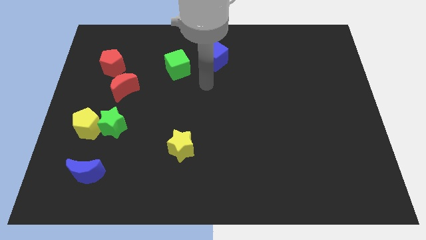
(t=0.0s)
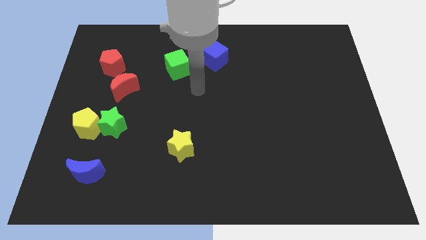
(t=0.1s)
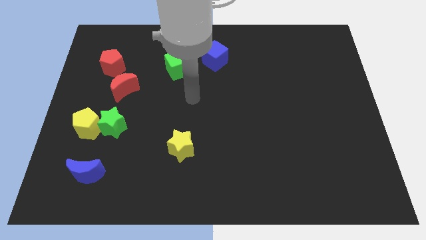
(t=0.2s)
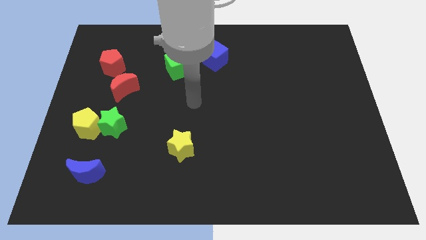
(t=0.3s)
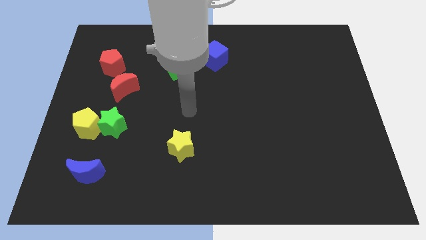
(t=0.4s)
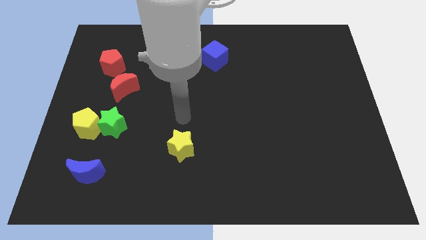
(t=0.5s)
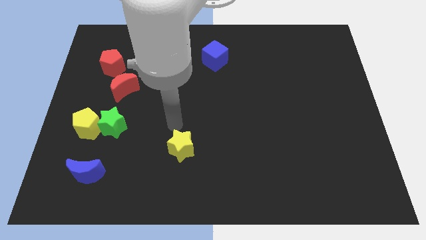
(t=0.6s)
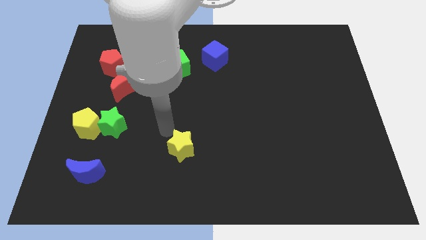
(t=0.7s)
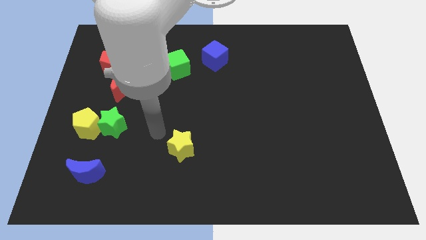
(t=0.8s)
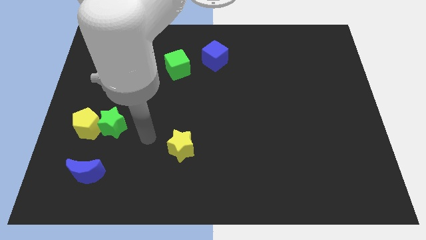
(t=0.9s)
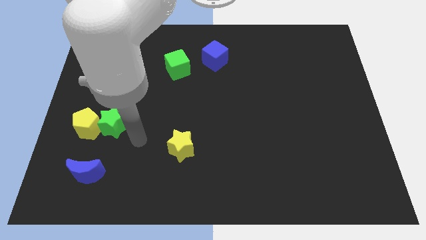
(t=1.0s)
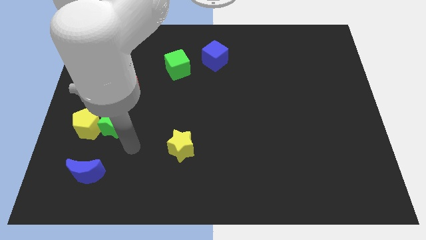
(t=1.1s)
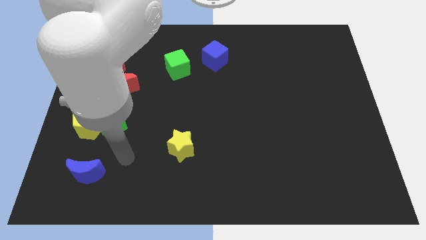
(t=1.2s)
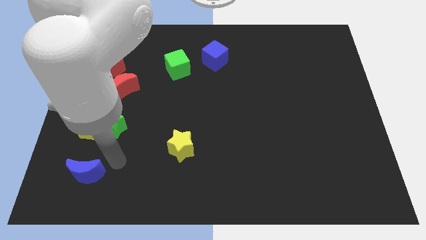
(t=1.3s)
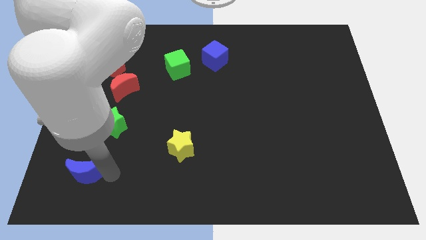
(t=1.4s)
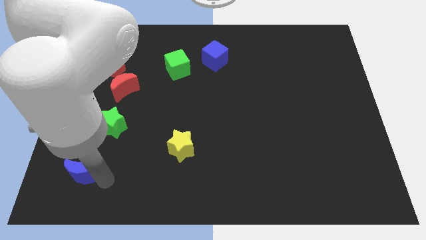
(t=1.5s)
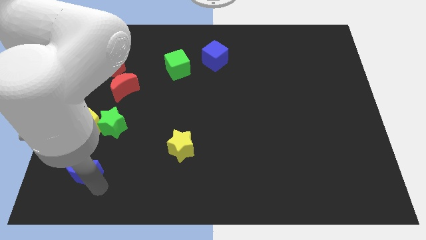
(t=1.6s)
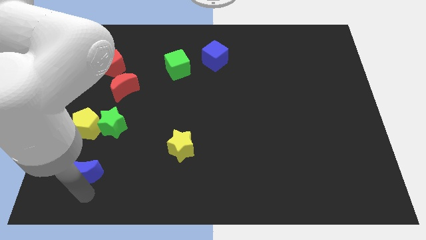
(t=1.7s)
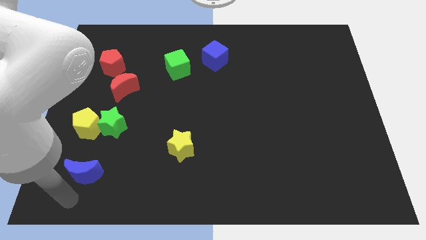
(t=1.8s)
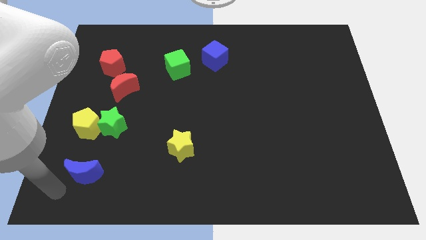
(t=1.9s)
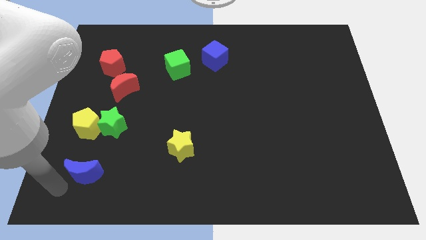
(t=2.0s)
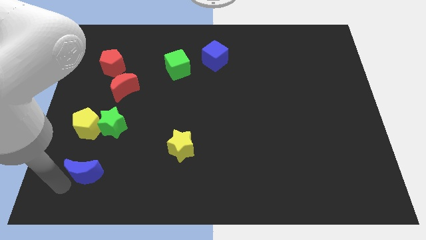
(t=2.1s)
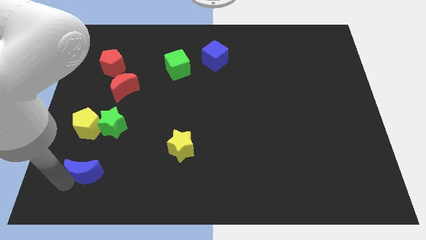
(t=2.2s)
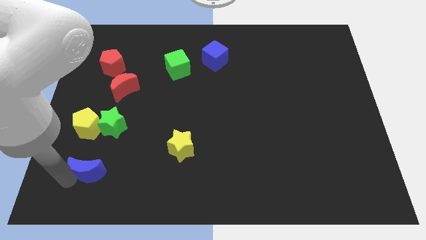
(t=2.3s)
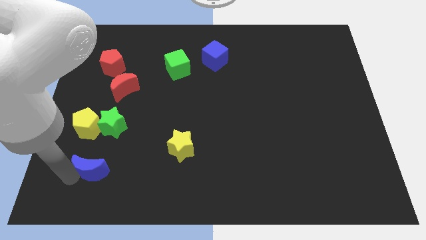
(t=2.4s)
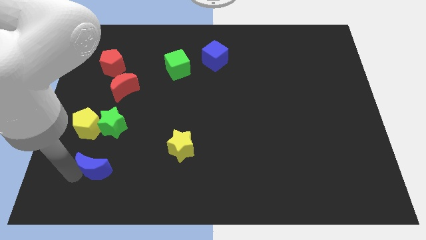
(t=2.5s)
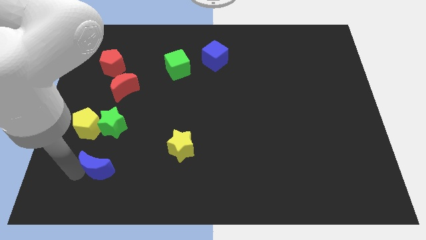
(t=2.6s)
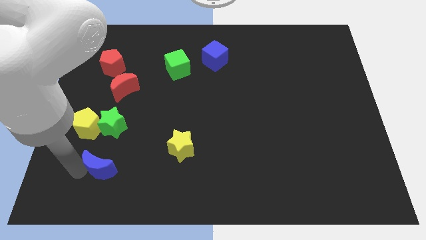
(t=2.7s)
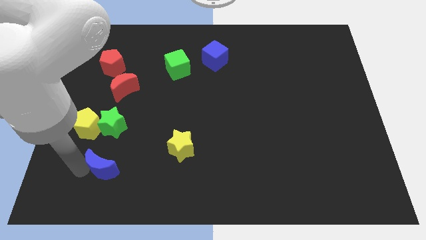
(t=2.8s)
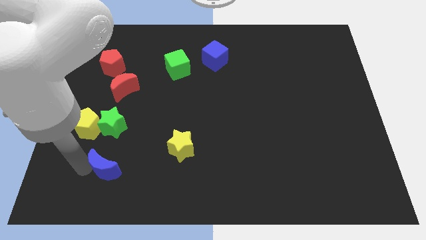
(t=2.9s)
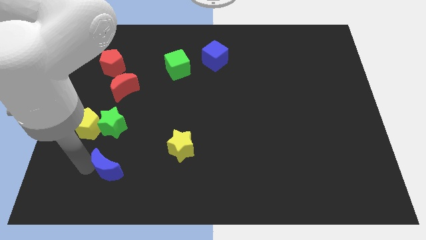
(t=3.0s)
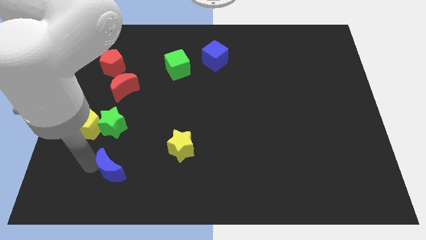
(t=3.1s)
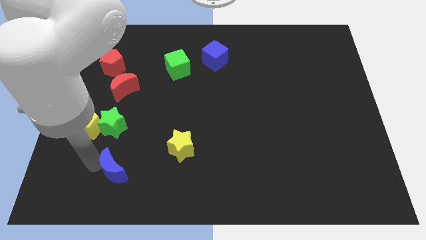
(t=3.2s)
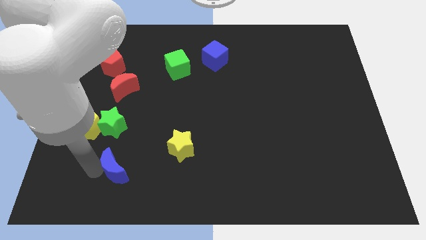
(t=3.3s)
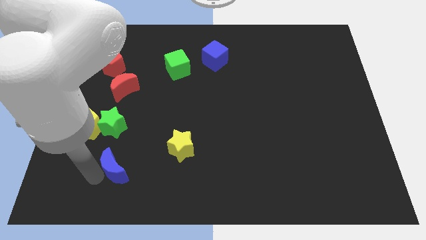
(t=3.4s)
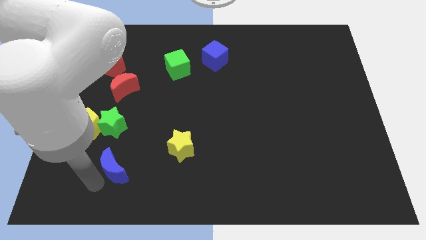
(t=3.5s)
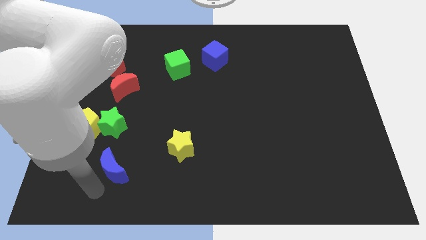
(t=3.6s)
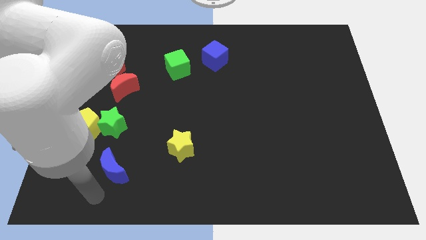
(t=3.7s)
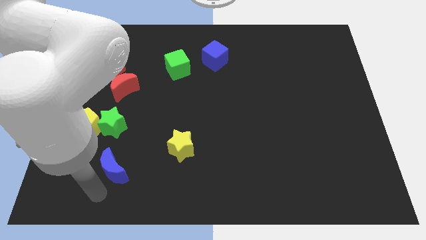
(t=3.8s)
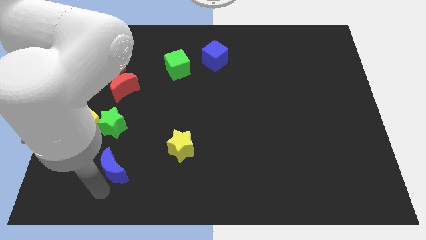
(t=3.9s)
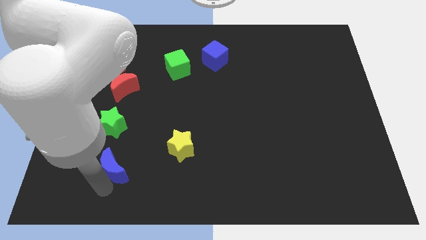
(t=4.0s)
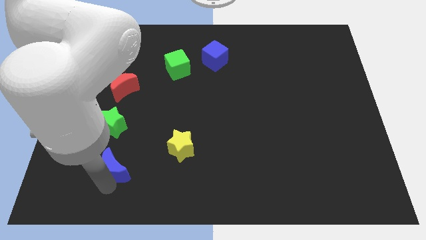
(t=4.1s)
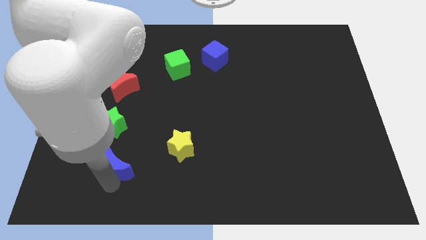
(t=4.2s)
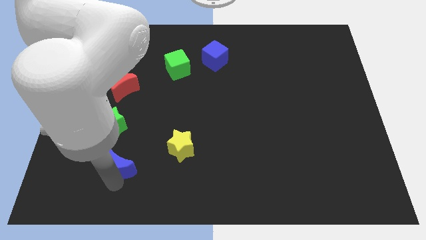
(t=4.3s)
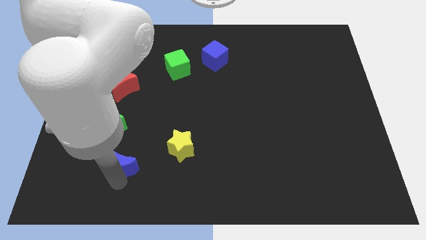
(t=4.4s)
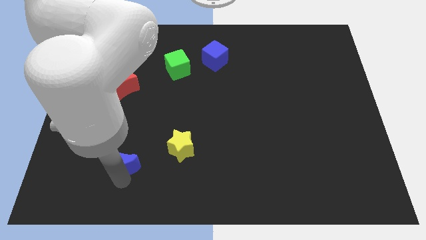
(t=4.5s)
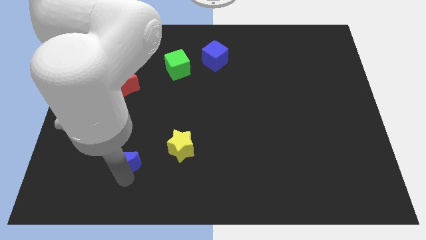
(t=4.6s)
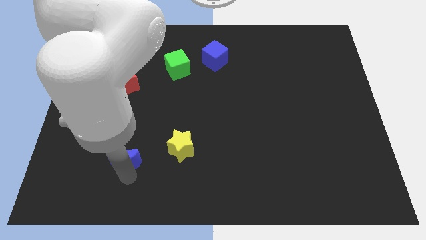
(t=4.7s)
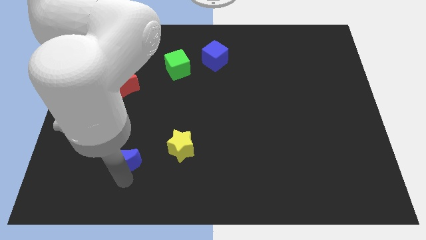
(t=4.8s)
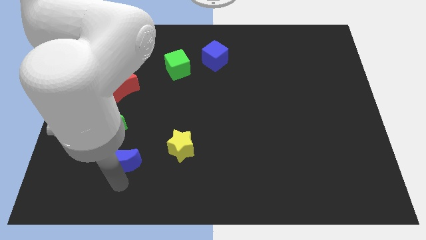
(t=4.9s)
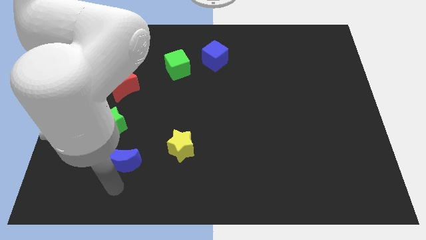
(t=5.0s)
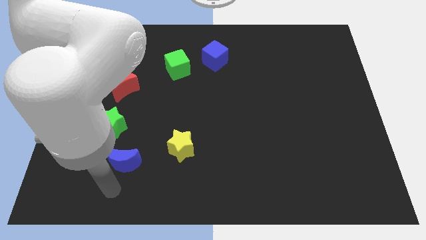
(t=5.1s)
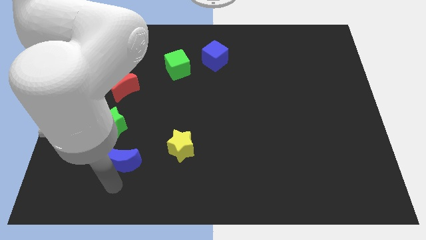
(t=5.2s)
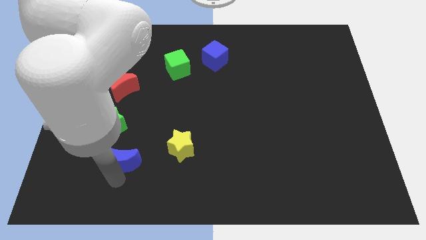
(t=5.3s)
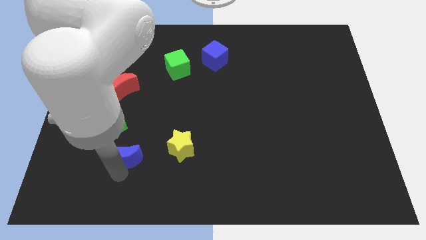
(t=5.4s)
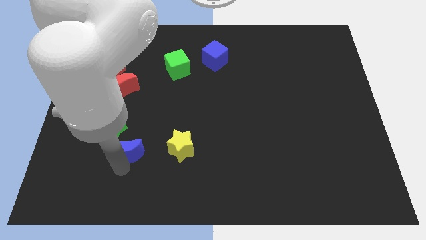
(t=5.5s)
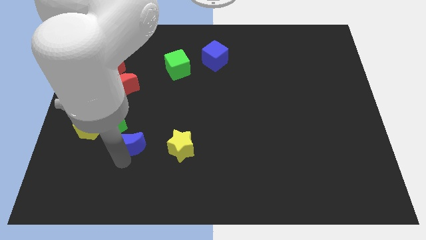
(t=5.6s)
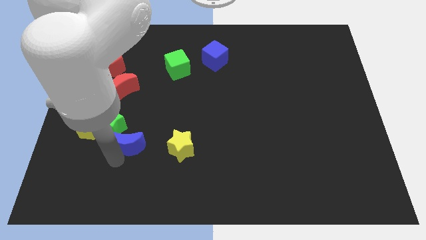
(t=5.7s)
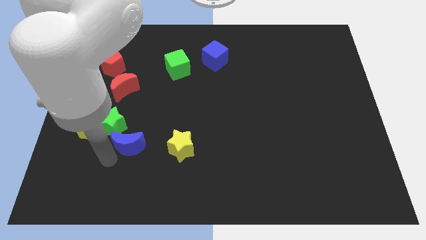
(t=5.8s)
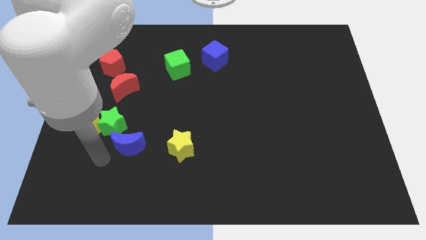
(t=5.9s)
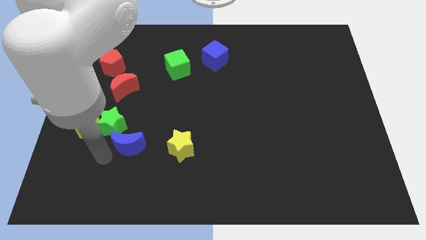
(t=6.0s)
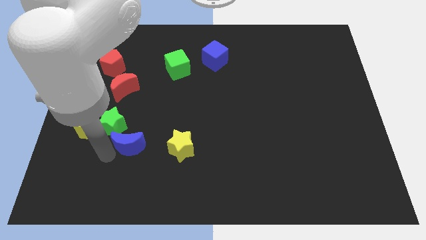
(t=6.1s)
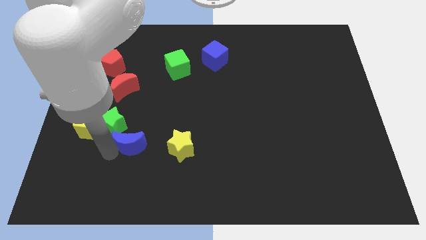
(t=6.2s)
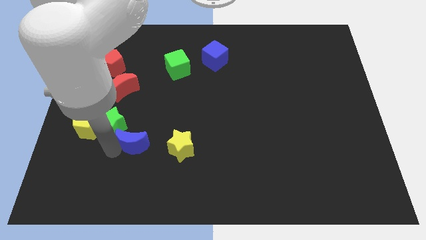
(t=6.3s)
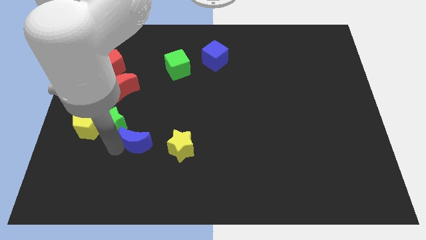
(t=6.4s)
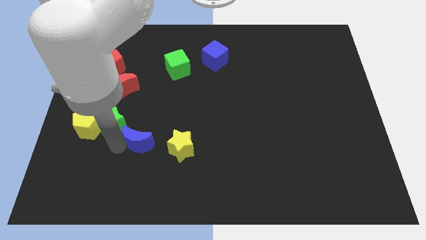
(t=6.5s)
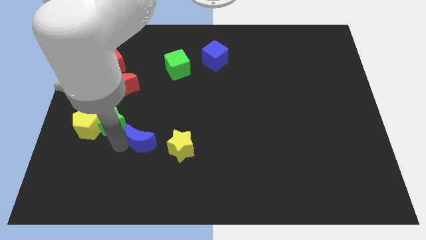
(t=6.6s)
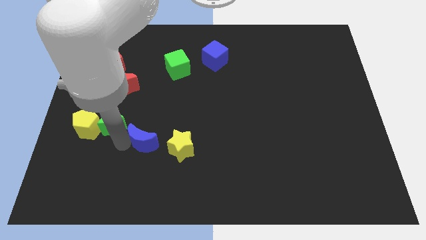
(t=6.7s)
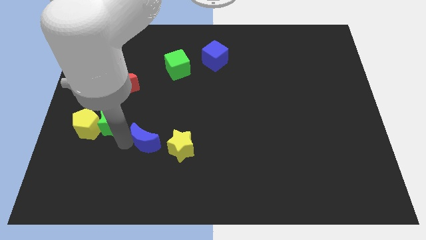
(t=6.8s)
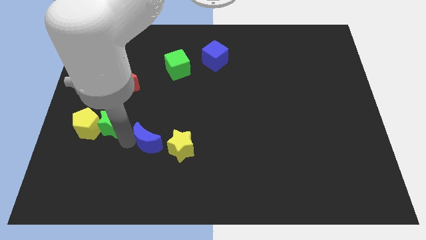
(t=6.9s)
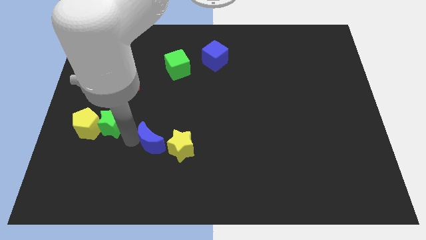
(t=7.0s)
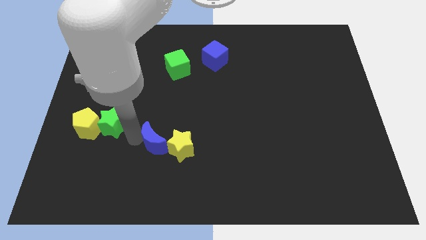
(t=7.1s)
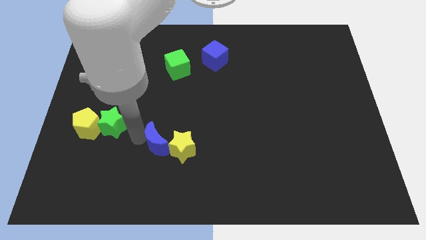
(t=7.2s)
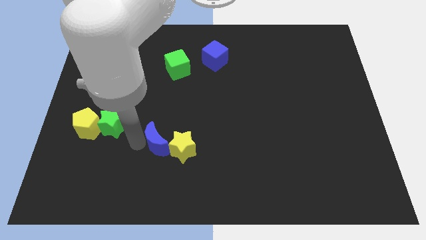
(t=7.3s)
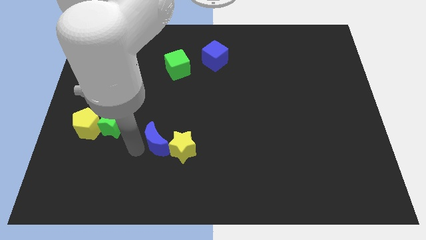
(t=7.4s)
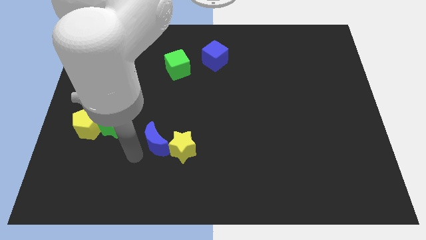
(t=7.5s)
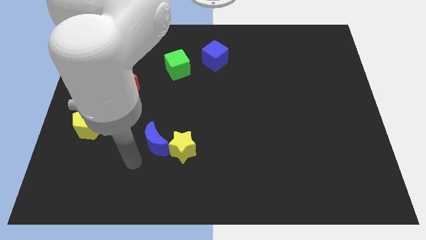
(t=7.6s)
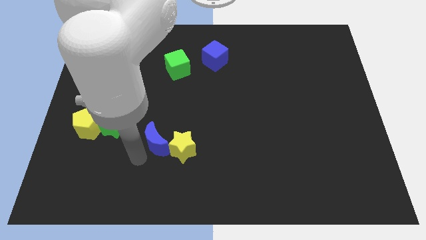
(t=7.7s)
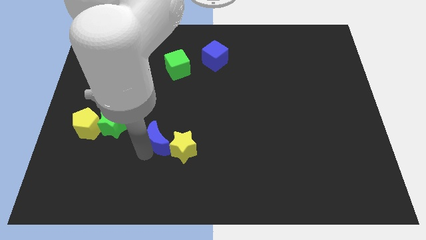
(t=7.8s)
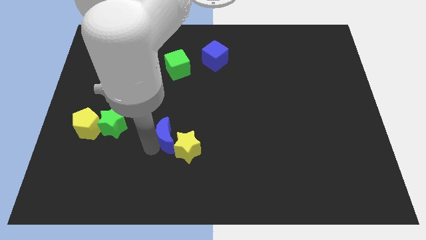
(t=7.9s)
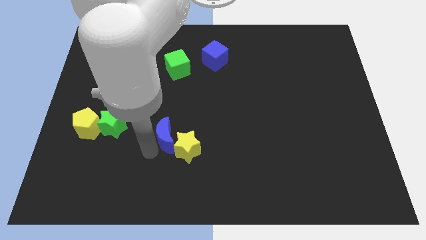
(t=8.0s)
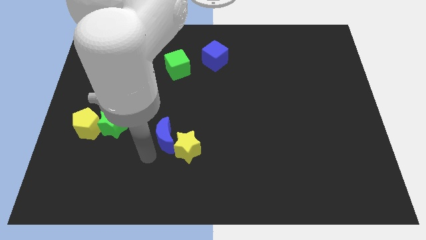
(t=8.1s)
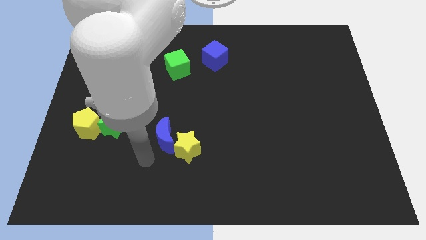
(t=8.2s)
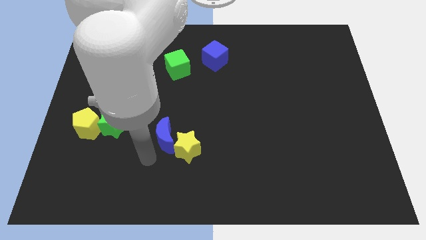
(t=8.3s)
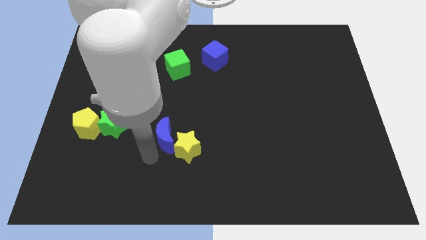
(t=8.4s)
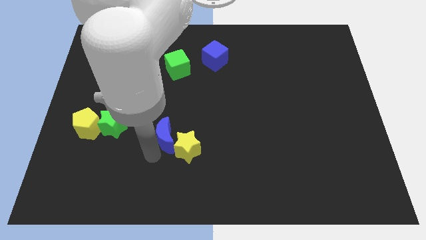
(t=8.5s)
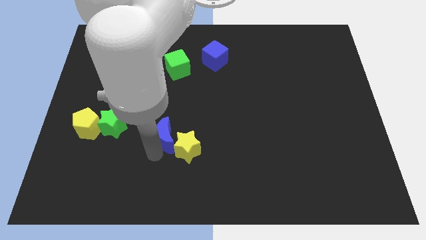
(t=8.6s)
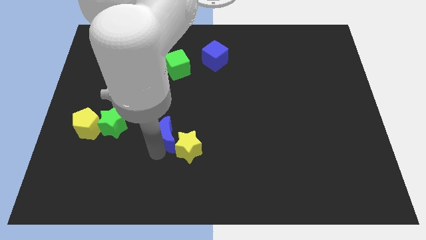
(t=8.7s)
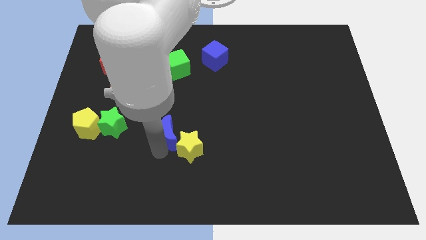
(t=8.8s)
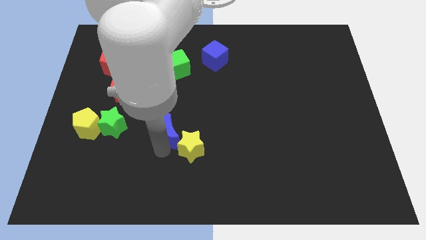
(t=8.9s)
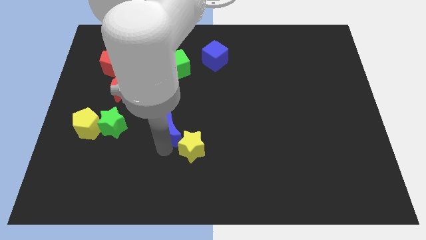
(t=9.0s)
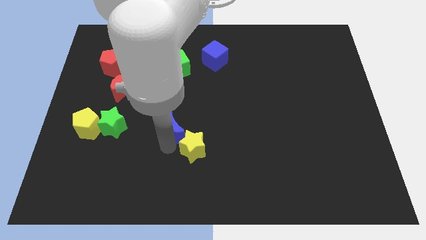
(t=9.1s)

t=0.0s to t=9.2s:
push the blue moon to the center
